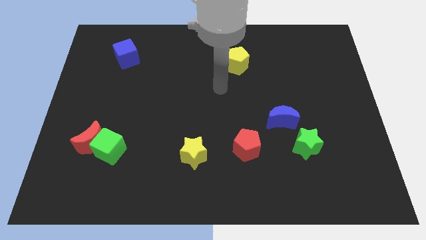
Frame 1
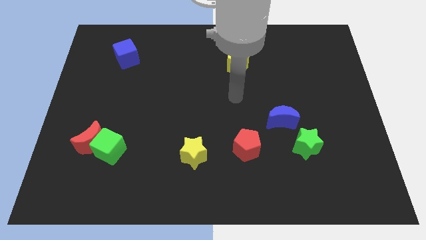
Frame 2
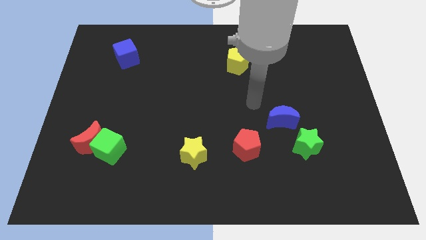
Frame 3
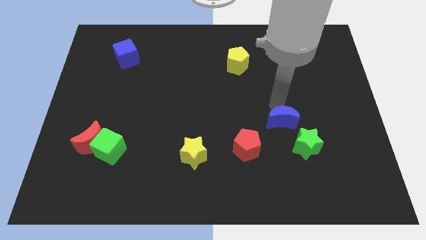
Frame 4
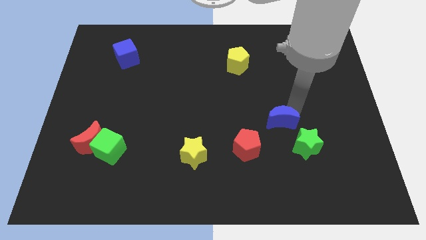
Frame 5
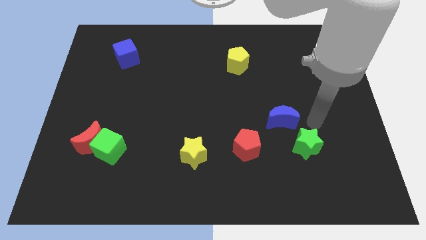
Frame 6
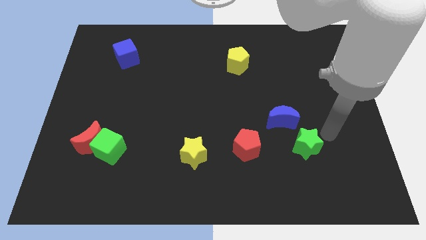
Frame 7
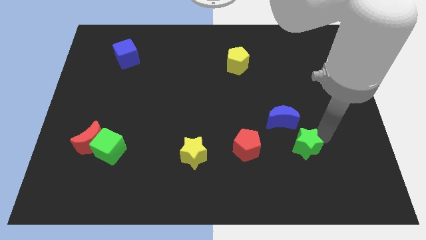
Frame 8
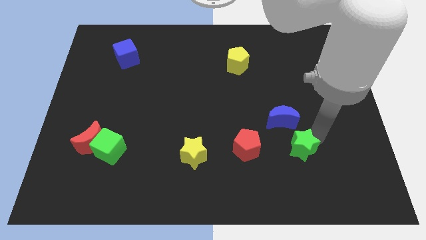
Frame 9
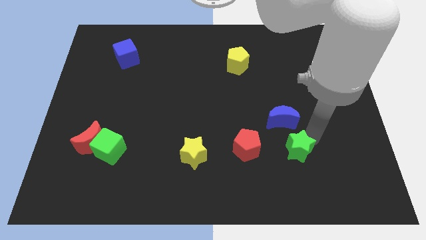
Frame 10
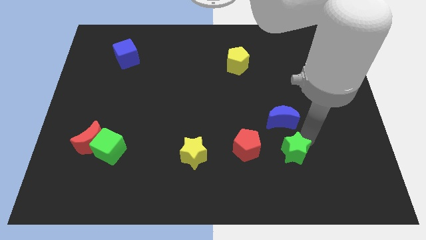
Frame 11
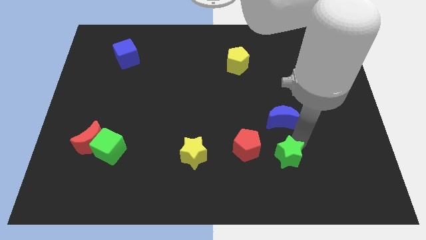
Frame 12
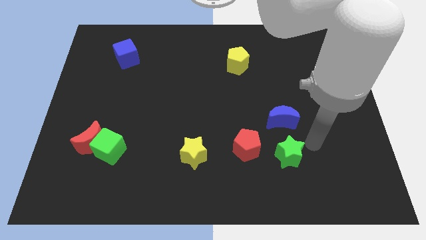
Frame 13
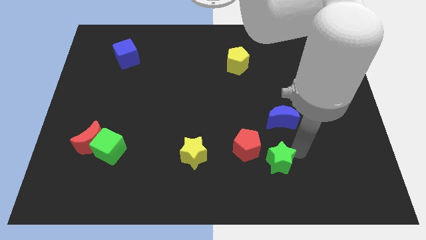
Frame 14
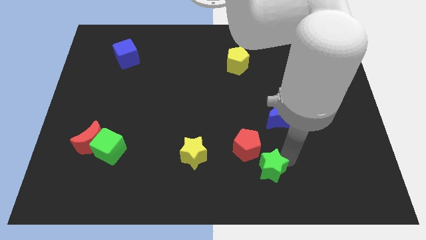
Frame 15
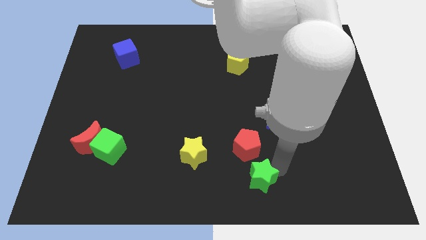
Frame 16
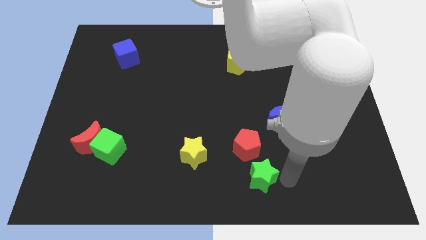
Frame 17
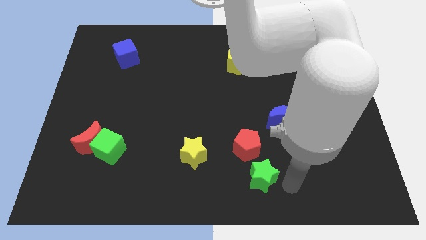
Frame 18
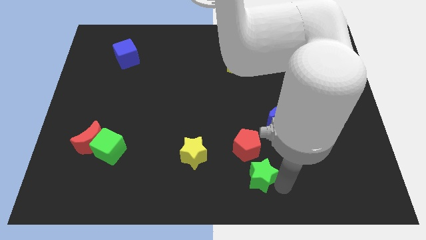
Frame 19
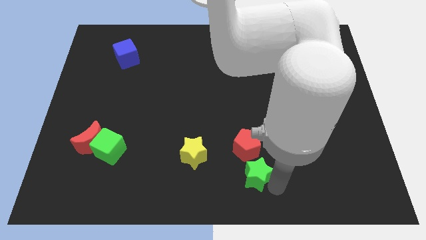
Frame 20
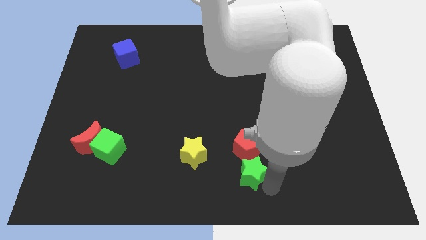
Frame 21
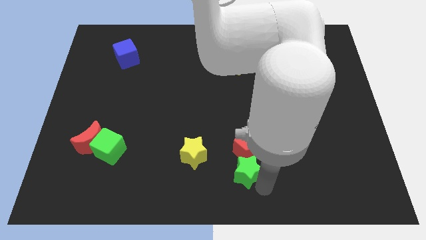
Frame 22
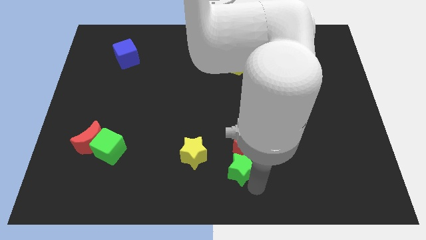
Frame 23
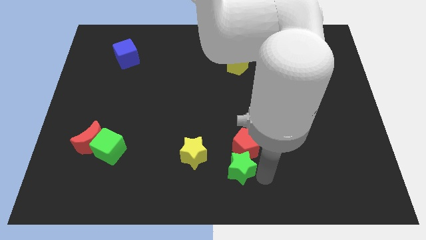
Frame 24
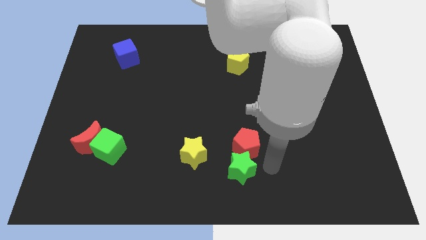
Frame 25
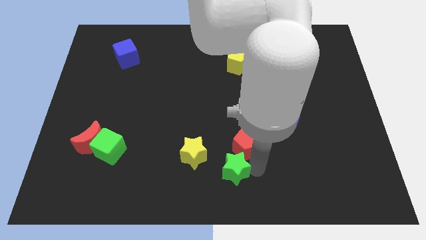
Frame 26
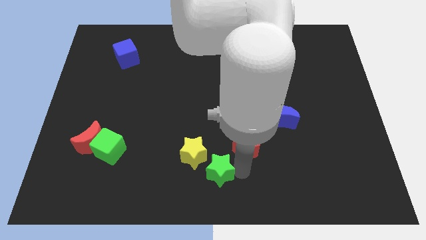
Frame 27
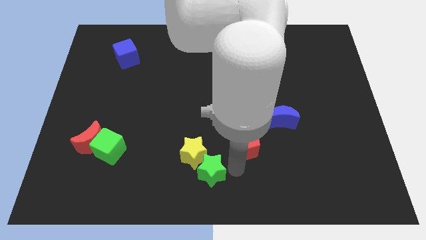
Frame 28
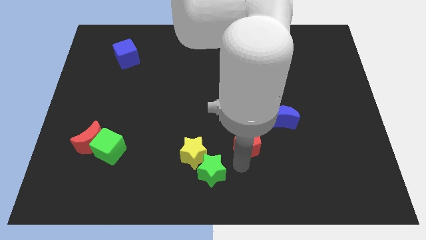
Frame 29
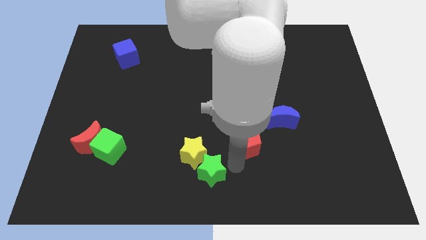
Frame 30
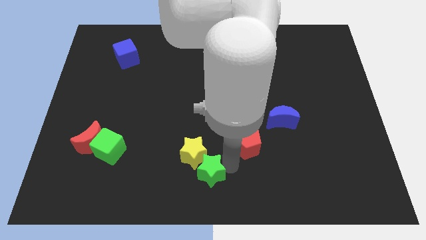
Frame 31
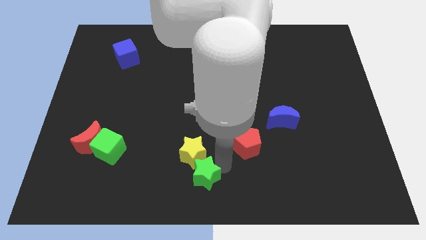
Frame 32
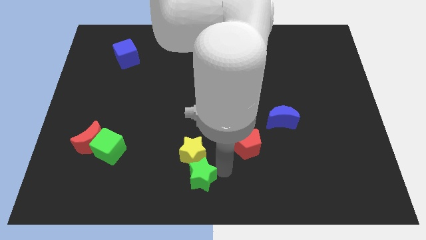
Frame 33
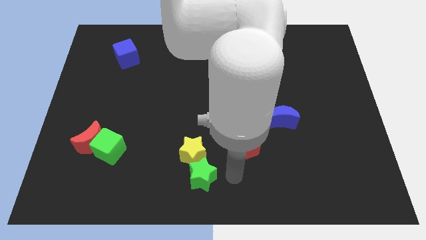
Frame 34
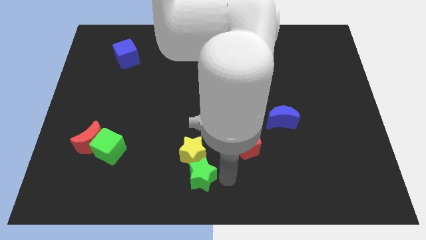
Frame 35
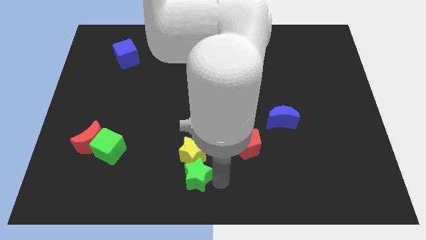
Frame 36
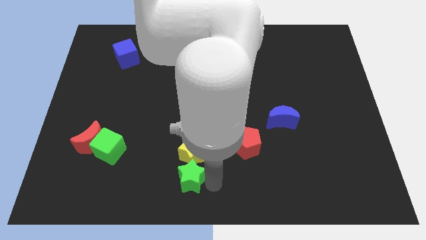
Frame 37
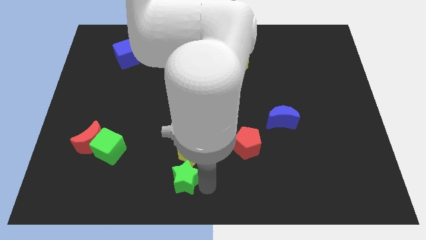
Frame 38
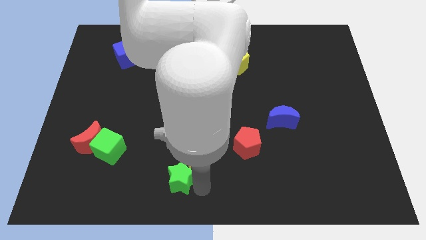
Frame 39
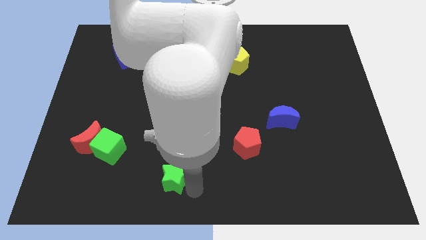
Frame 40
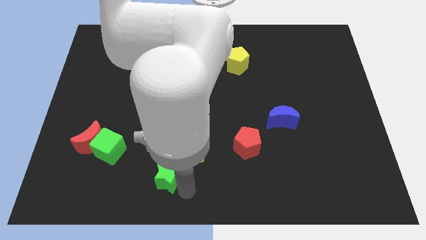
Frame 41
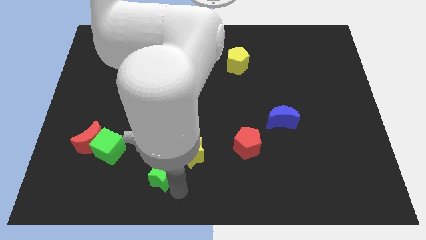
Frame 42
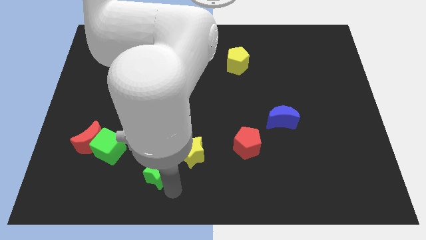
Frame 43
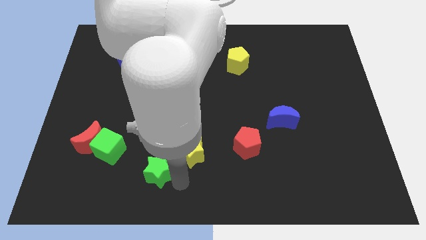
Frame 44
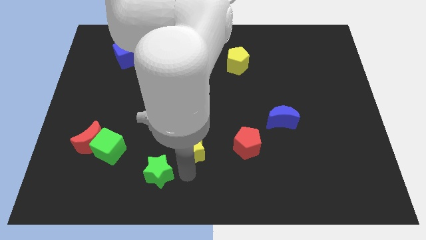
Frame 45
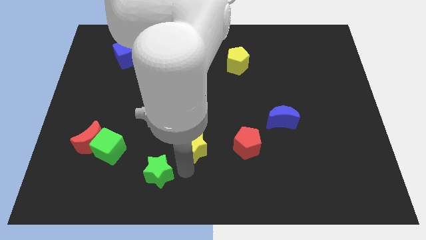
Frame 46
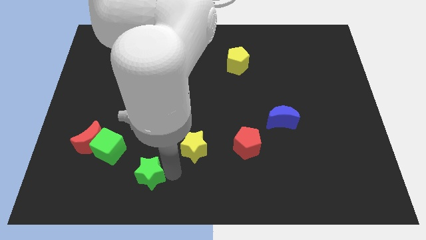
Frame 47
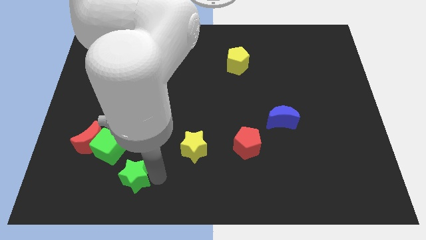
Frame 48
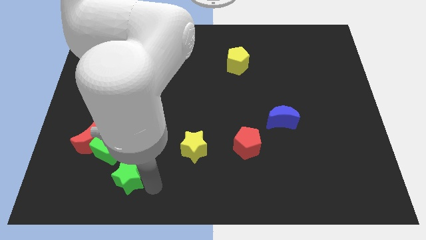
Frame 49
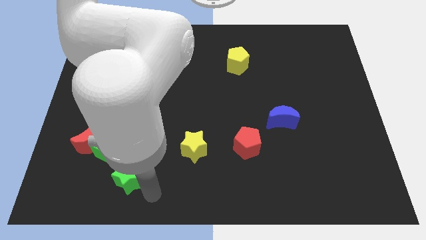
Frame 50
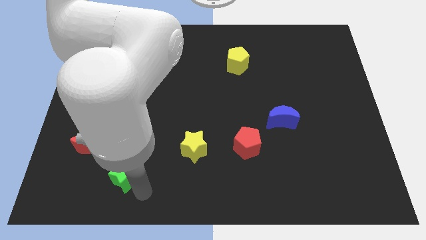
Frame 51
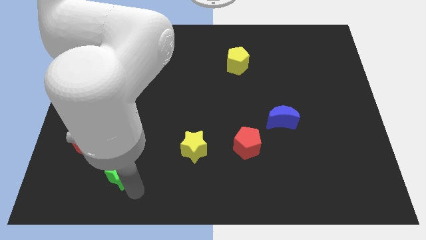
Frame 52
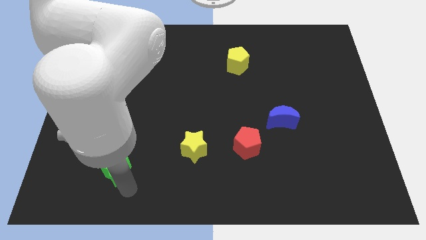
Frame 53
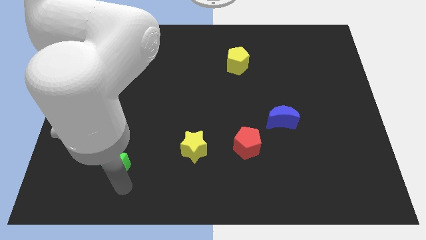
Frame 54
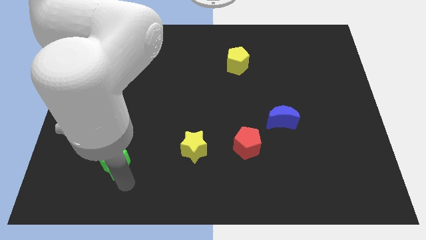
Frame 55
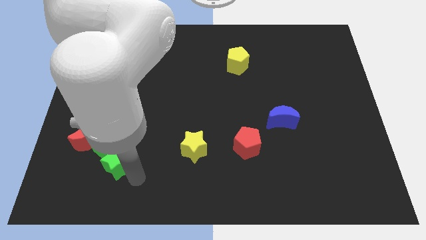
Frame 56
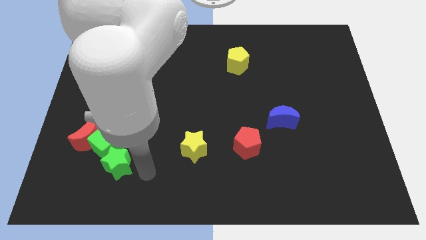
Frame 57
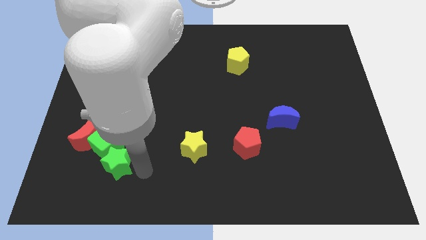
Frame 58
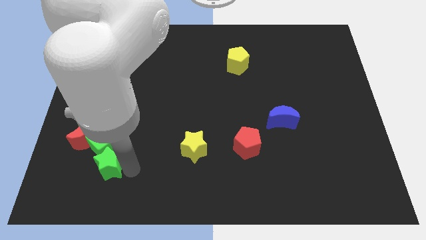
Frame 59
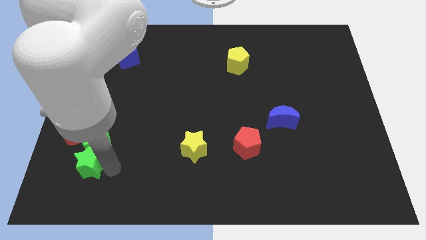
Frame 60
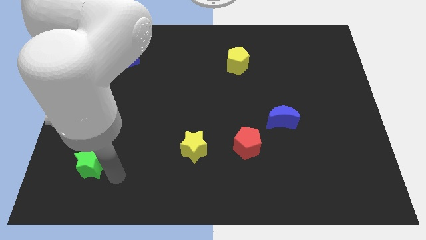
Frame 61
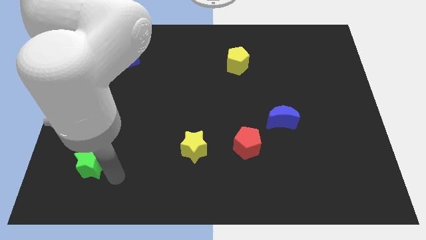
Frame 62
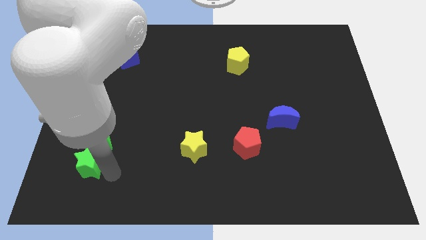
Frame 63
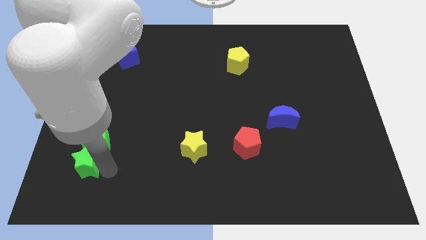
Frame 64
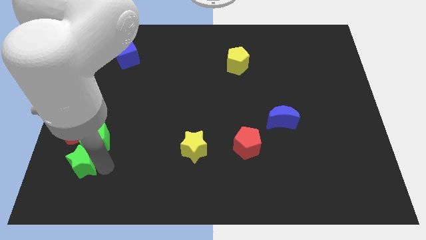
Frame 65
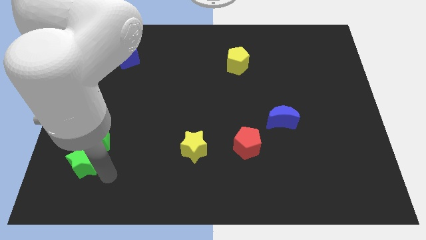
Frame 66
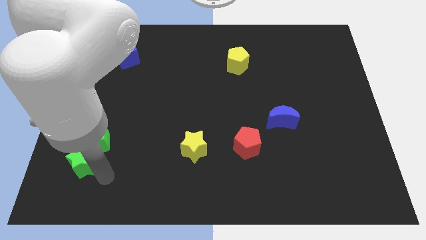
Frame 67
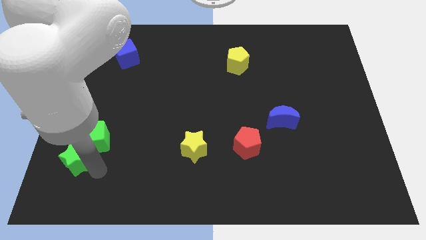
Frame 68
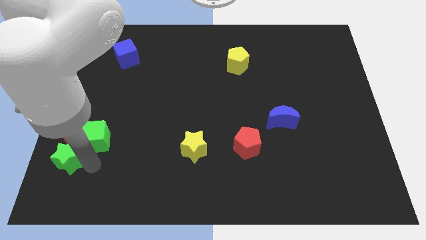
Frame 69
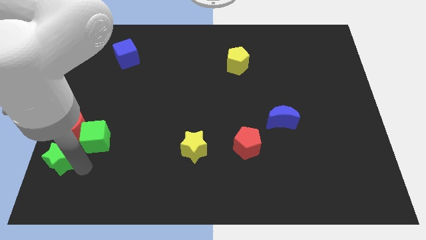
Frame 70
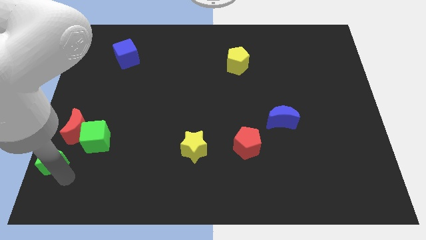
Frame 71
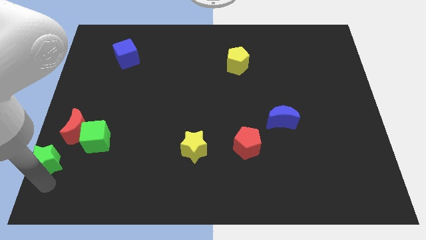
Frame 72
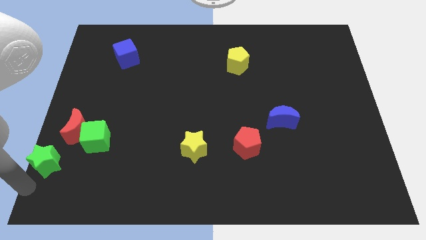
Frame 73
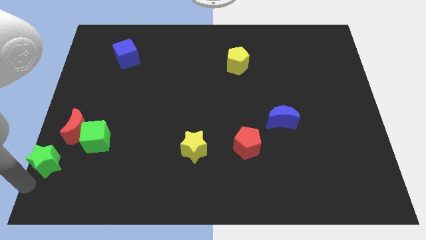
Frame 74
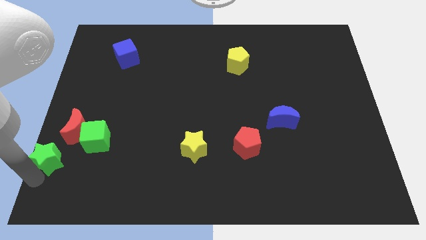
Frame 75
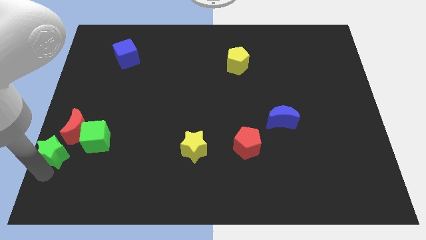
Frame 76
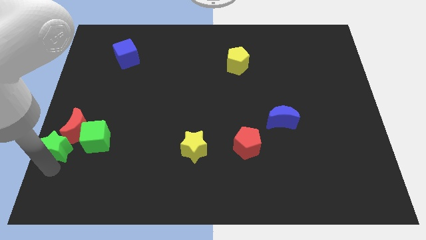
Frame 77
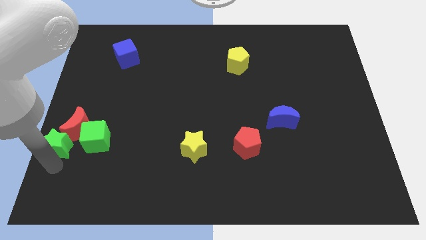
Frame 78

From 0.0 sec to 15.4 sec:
put the green star close to the red moon
